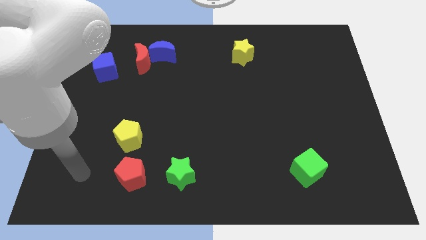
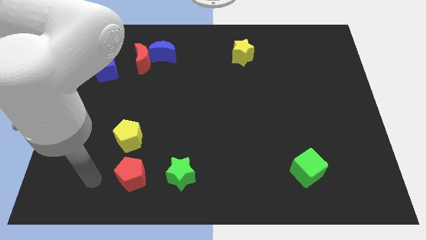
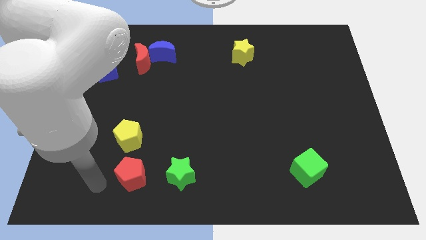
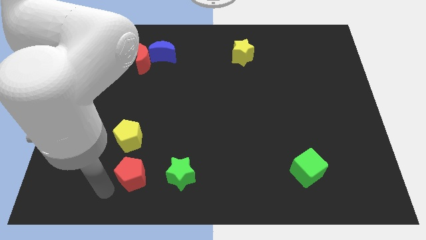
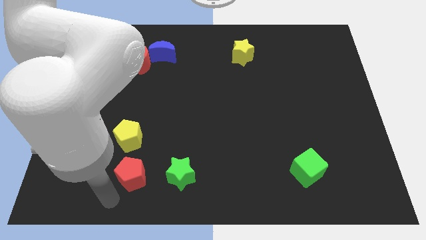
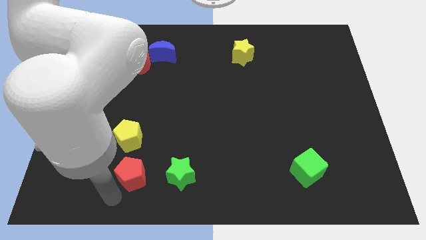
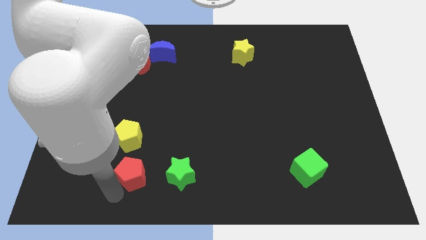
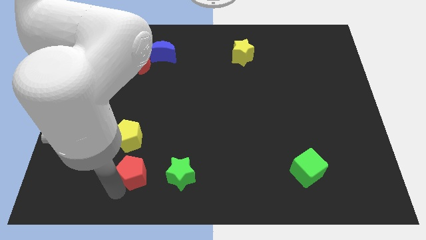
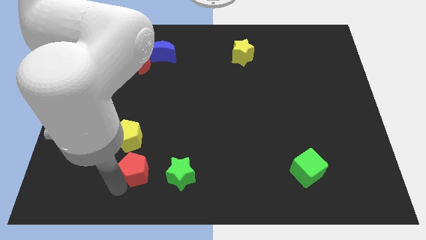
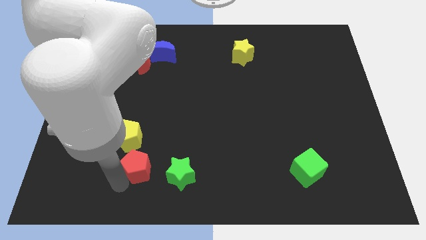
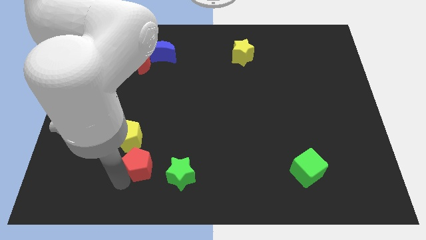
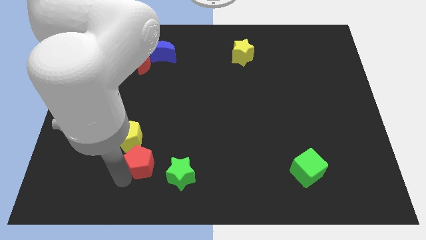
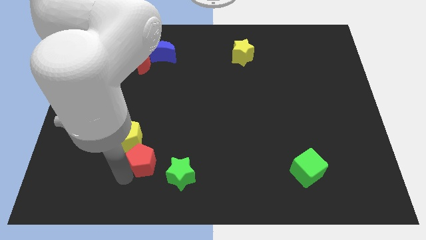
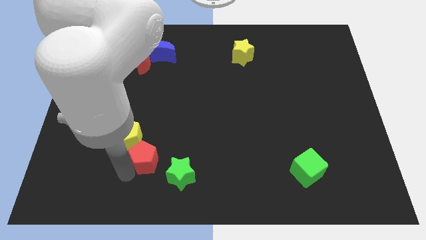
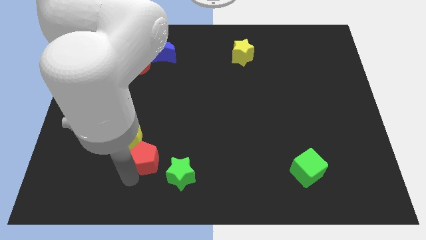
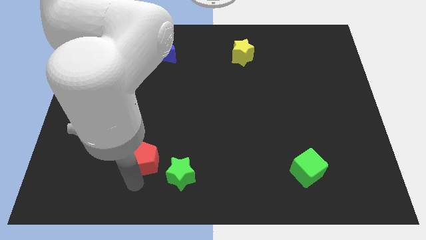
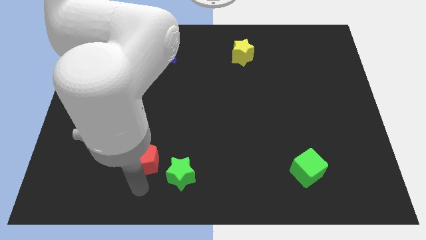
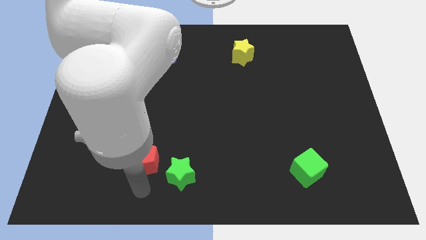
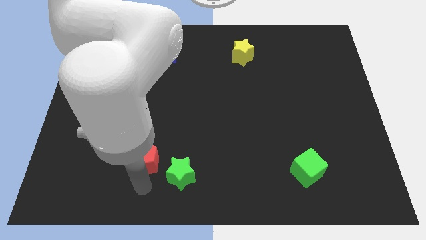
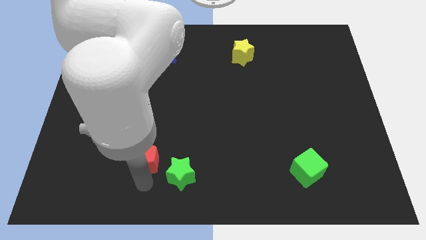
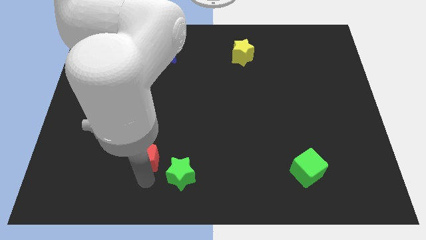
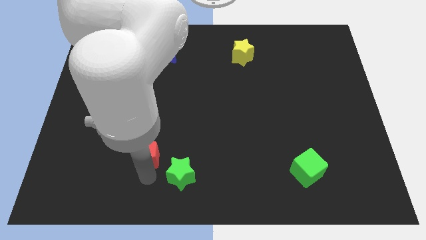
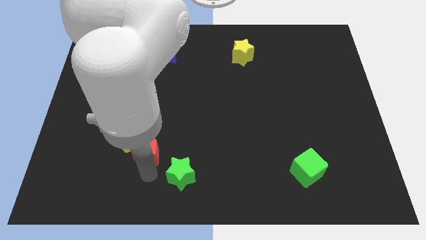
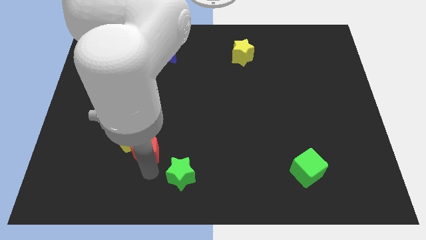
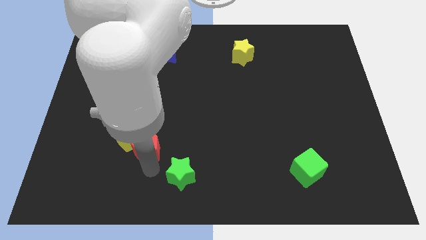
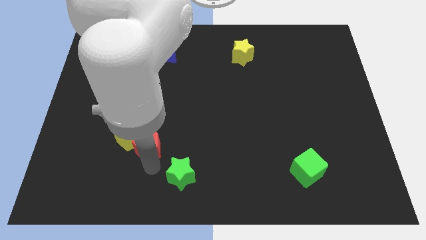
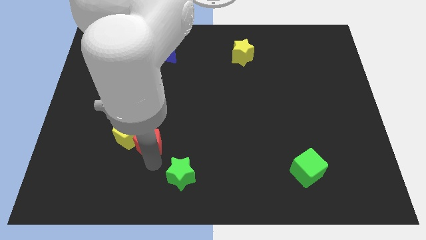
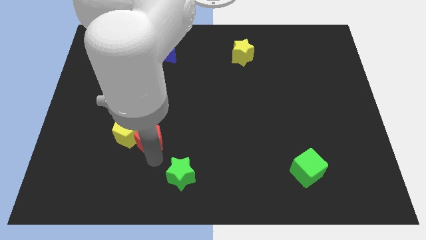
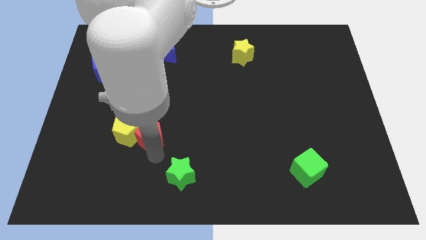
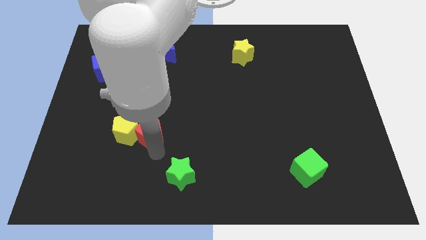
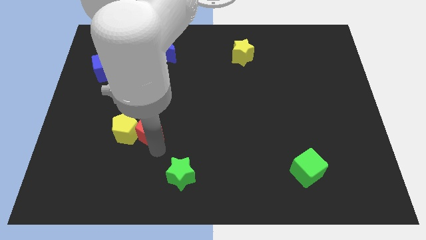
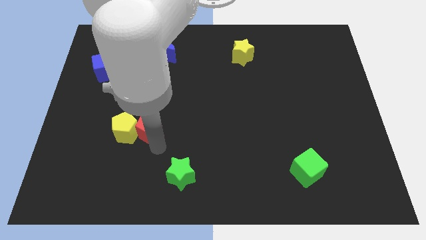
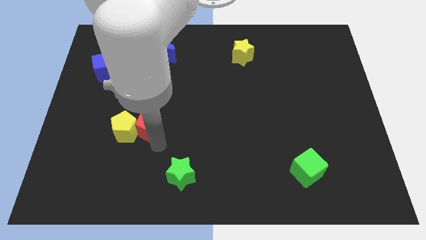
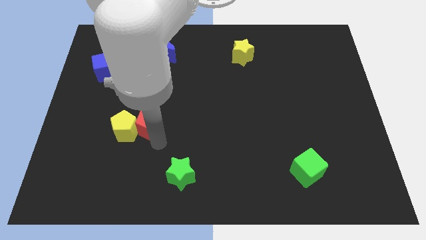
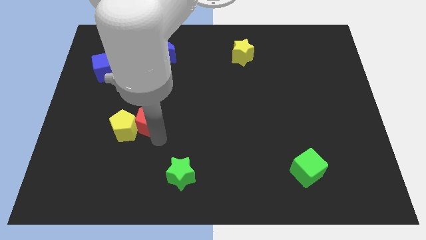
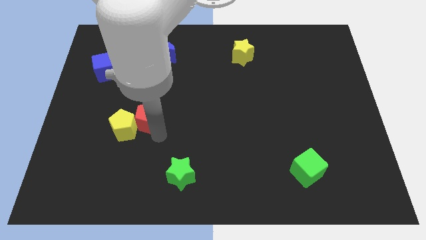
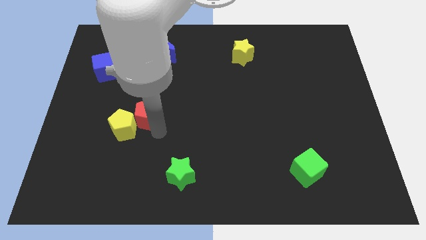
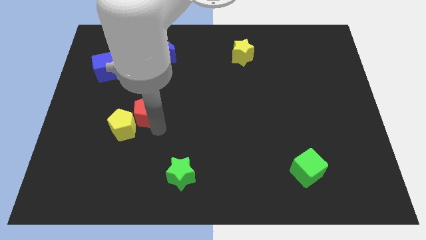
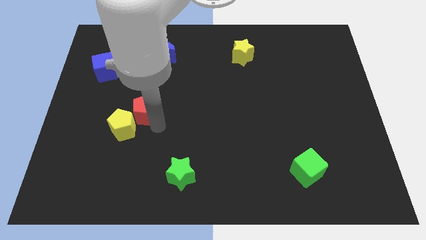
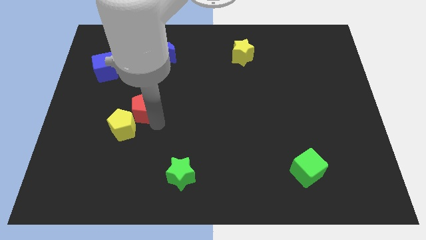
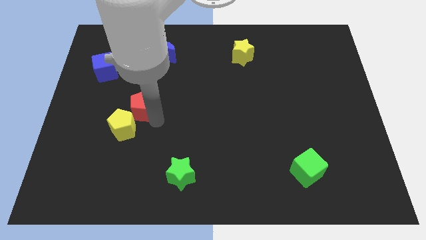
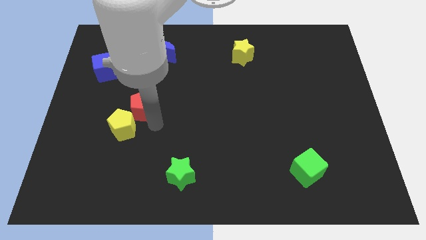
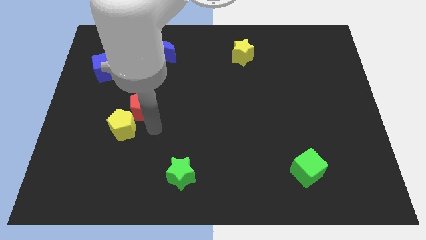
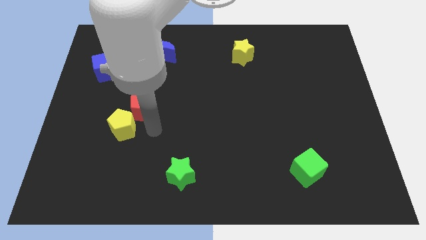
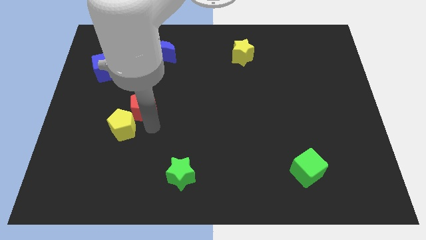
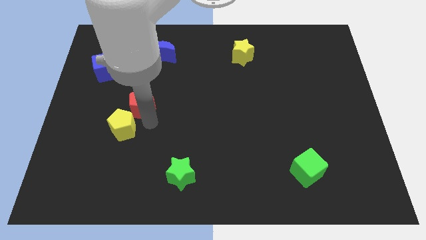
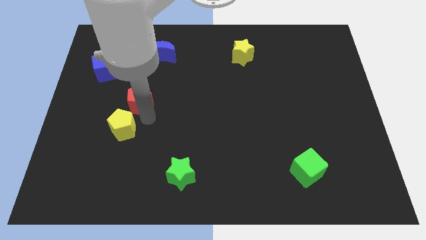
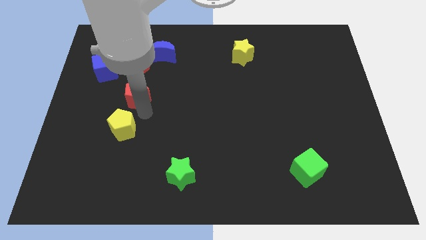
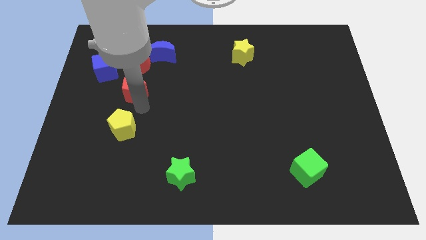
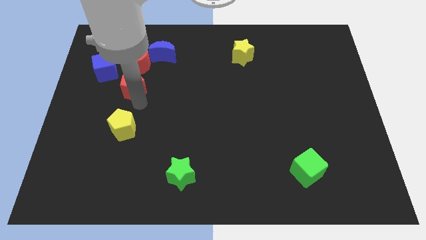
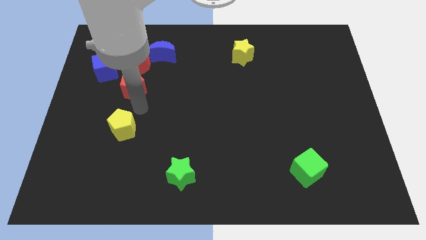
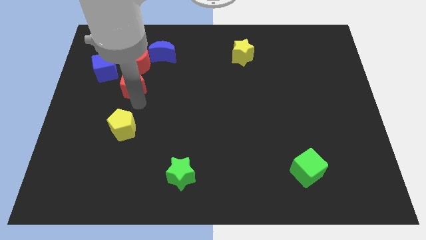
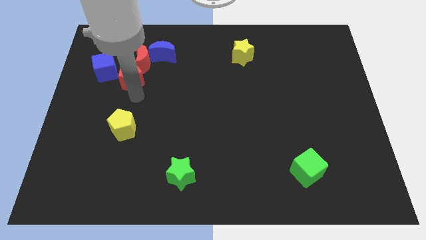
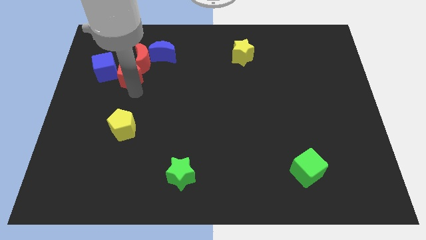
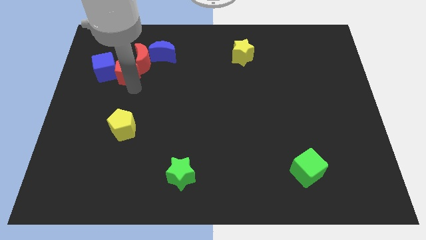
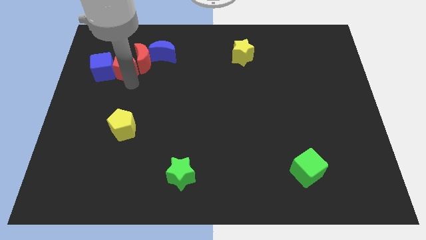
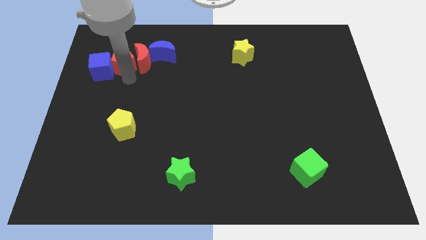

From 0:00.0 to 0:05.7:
put the red pentagon to the left side of the blue moon

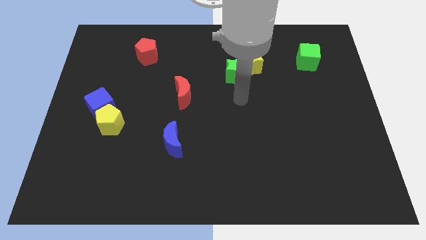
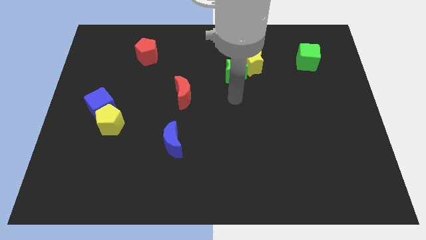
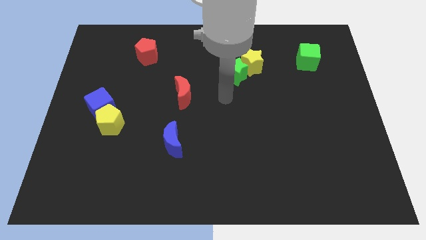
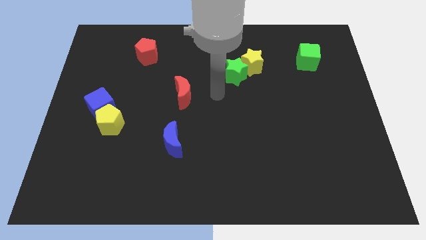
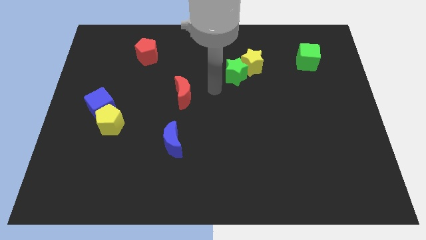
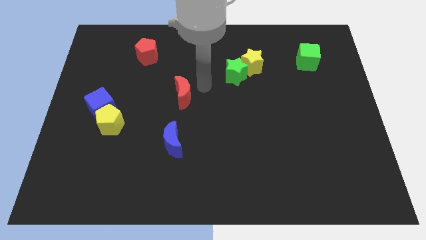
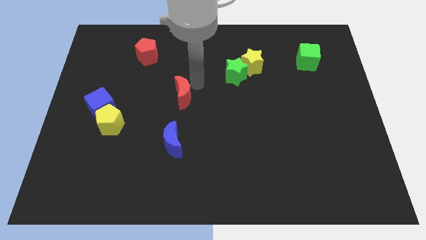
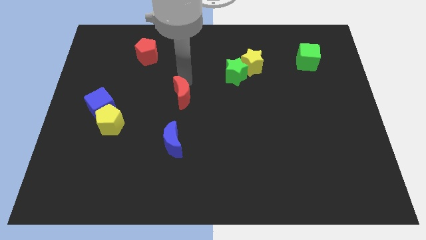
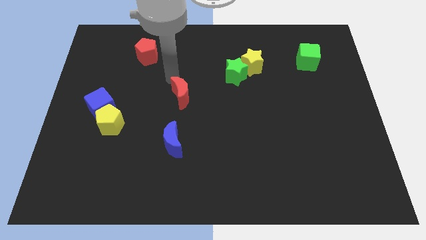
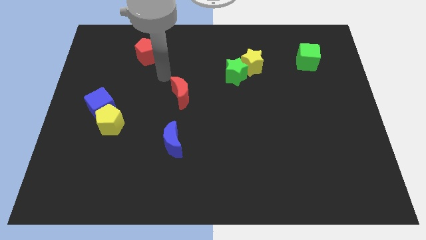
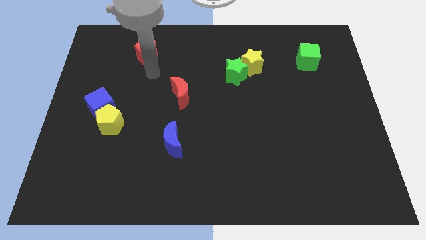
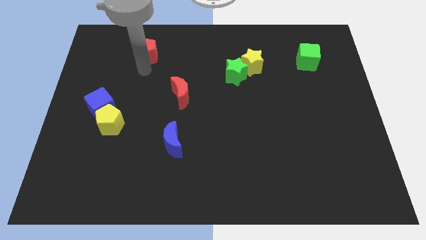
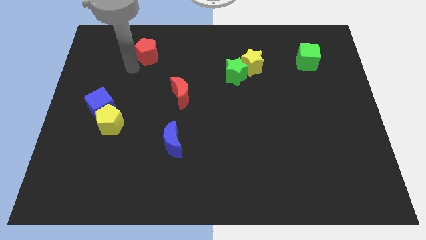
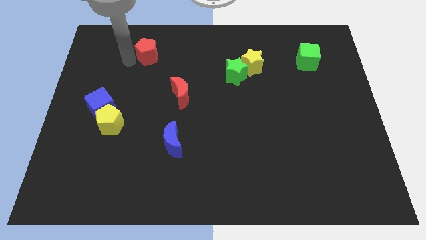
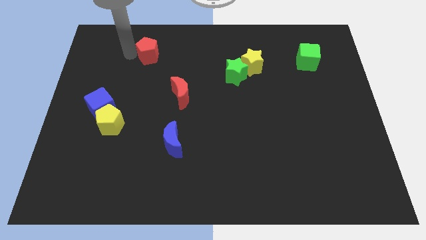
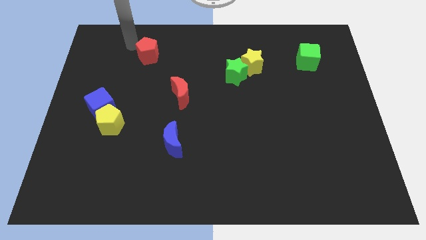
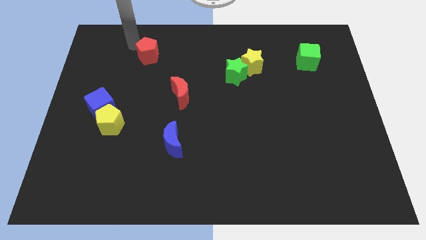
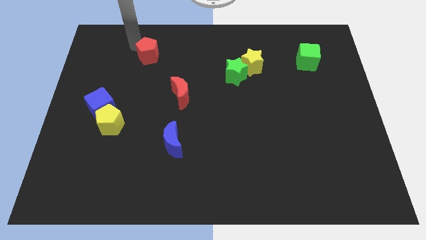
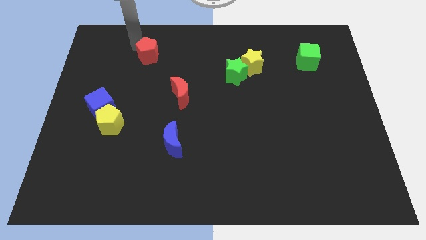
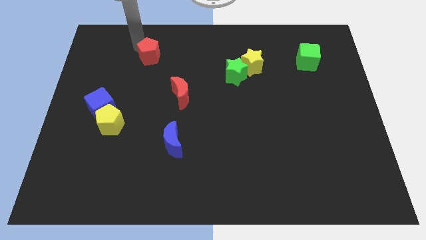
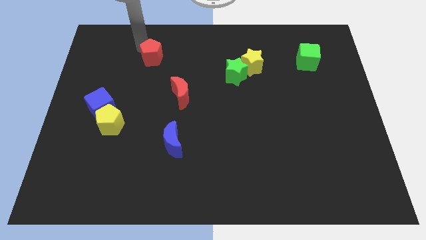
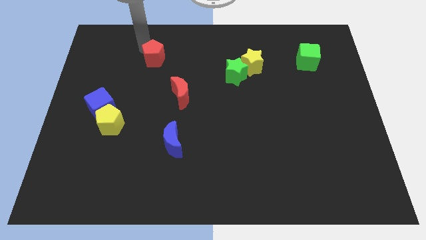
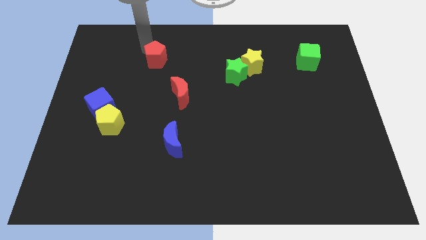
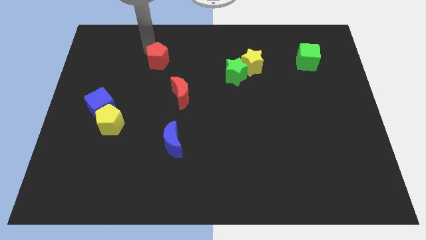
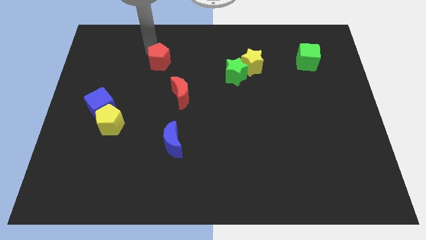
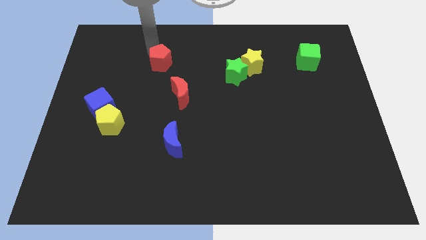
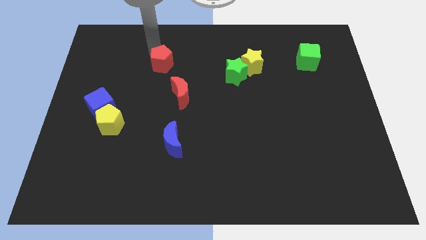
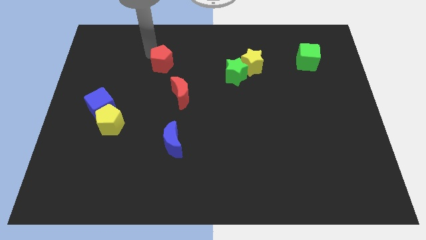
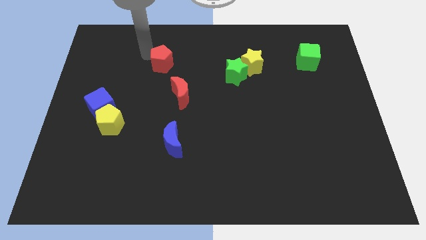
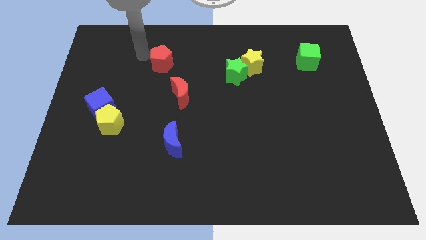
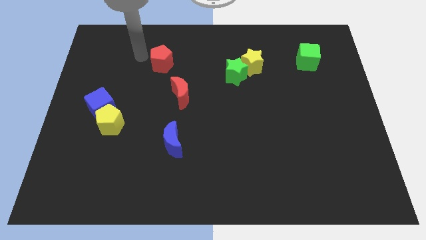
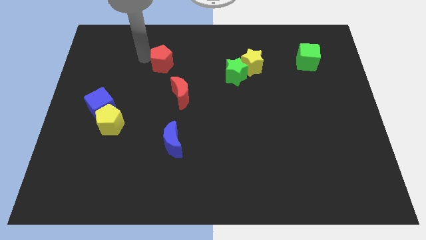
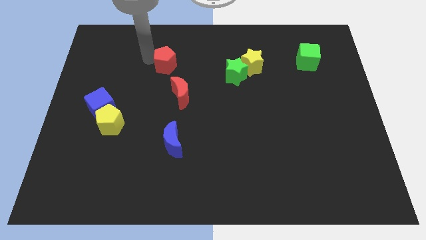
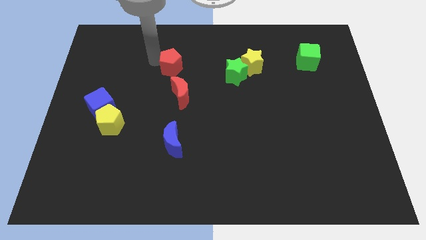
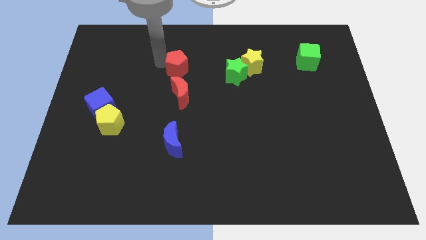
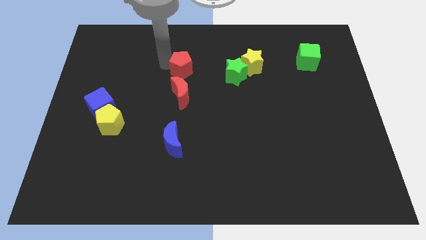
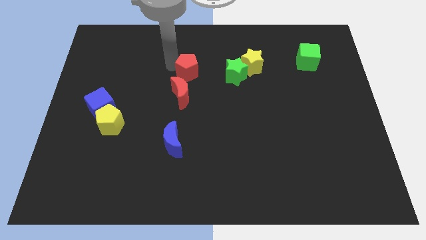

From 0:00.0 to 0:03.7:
push the red pentagon to the top right of the red moon
